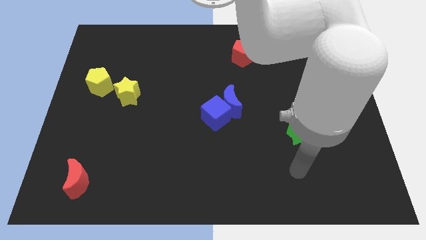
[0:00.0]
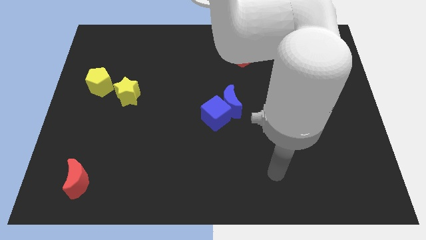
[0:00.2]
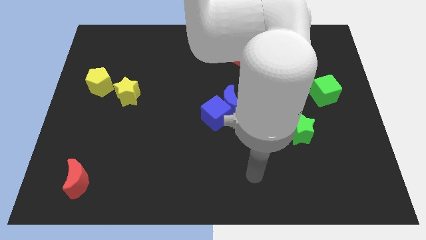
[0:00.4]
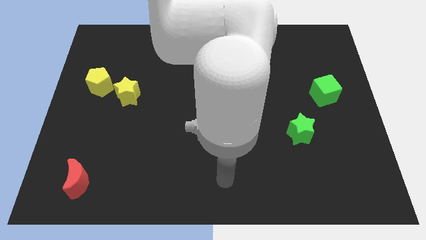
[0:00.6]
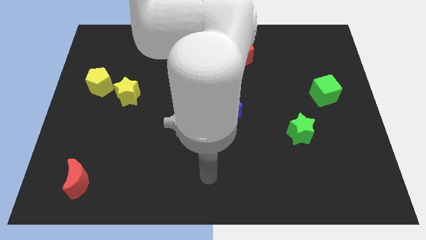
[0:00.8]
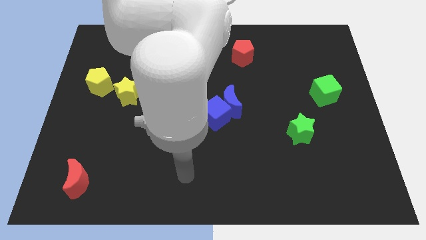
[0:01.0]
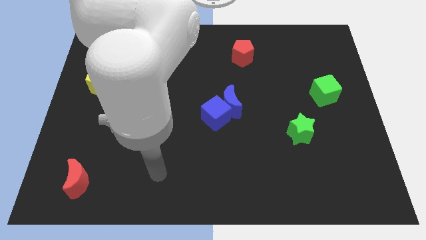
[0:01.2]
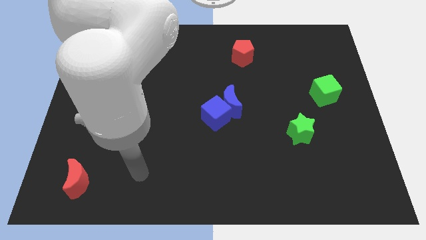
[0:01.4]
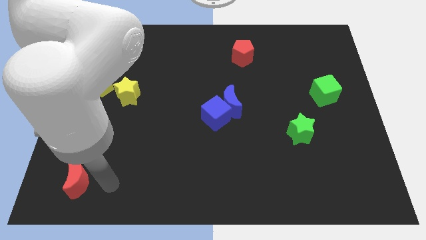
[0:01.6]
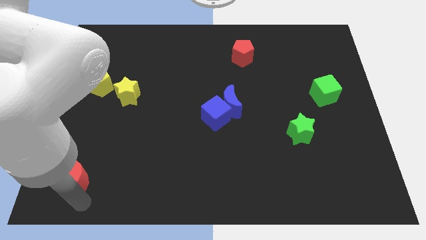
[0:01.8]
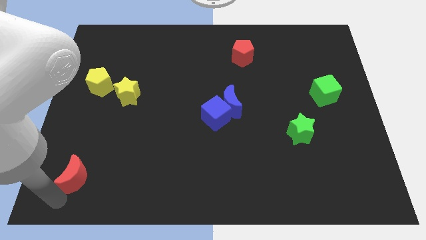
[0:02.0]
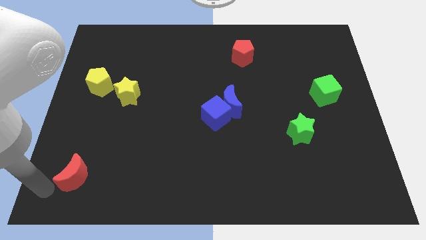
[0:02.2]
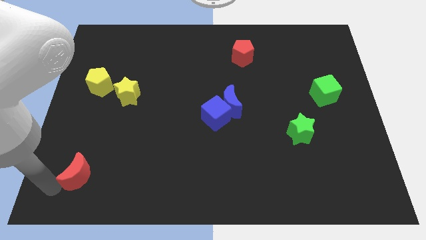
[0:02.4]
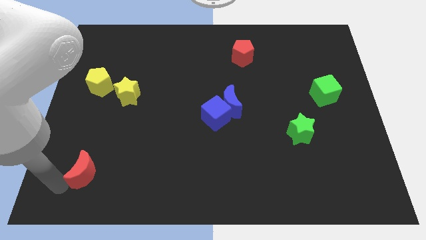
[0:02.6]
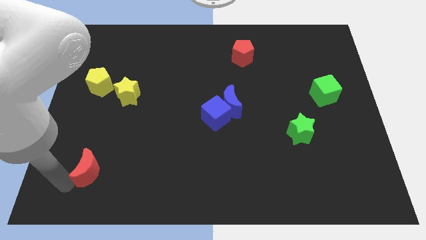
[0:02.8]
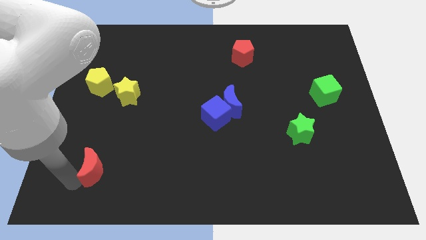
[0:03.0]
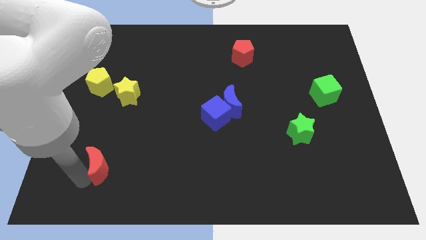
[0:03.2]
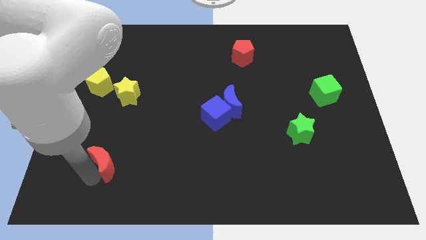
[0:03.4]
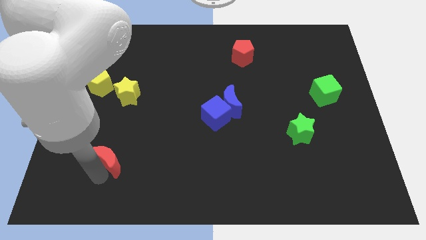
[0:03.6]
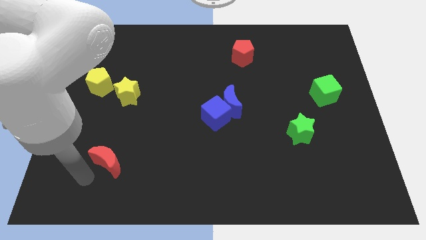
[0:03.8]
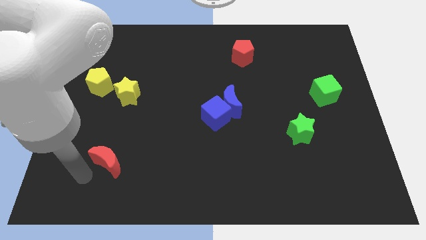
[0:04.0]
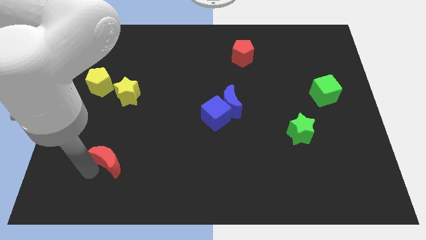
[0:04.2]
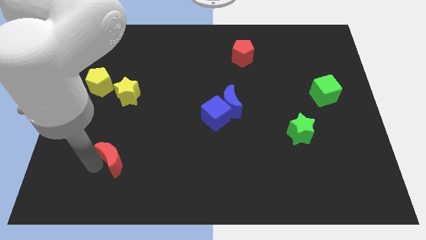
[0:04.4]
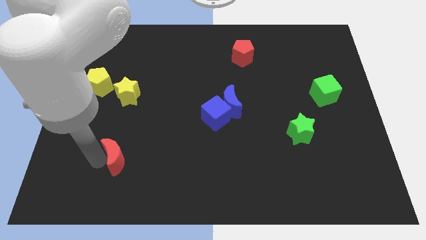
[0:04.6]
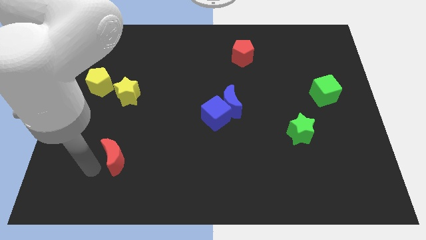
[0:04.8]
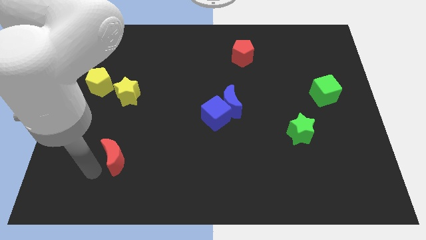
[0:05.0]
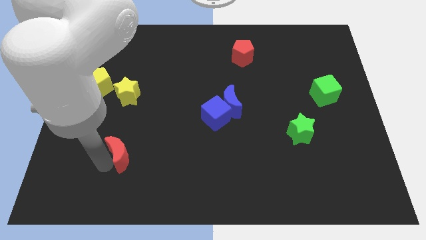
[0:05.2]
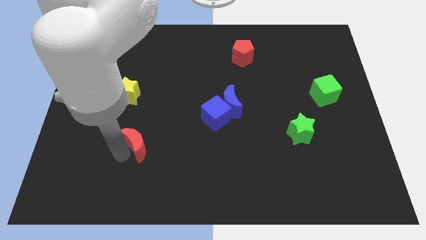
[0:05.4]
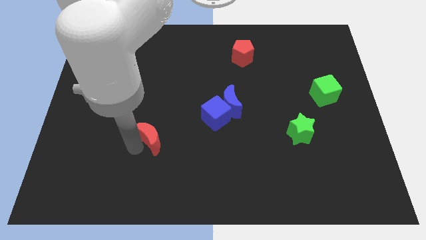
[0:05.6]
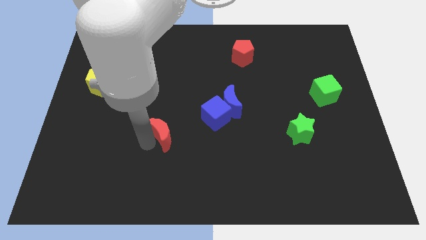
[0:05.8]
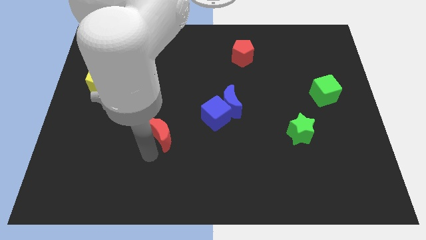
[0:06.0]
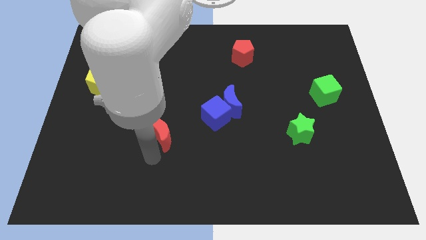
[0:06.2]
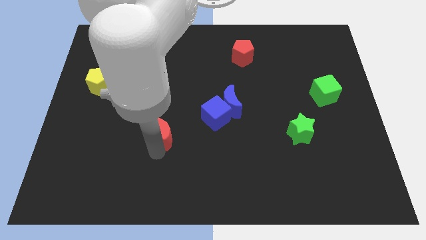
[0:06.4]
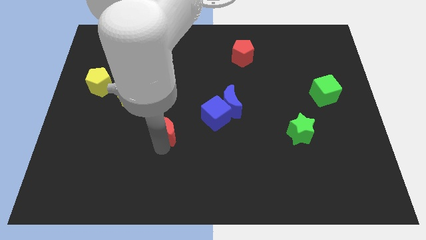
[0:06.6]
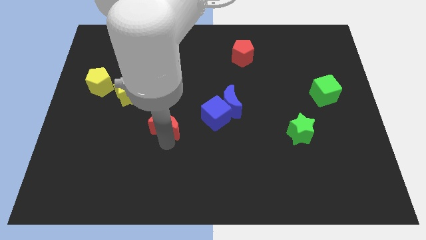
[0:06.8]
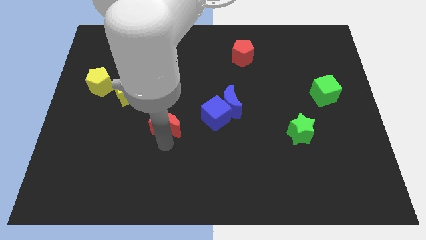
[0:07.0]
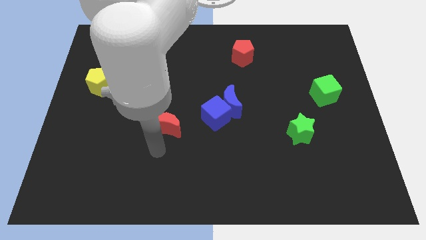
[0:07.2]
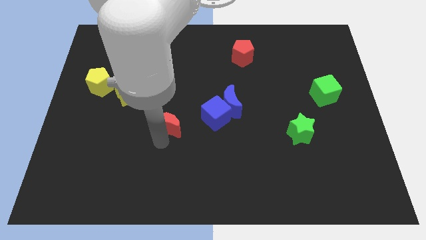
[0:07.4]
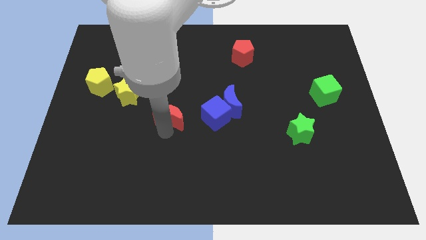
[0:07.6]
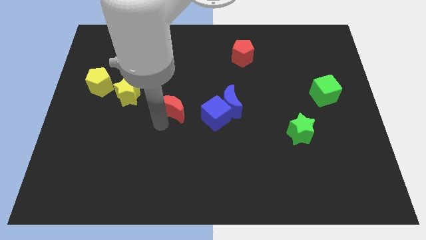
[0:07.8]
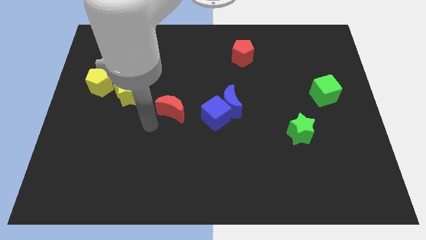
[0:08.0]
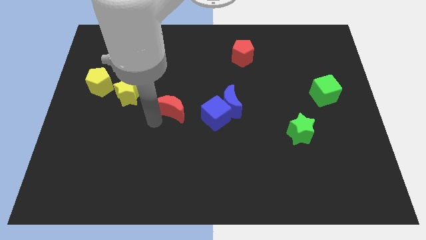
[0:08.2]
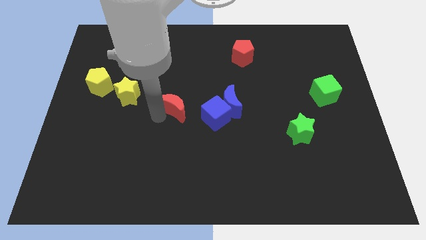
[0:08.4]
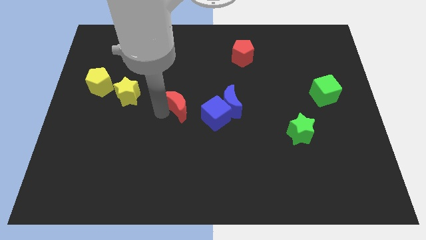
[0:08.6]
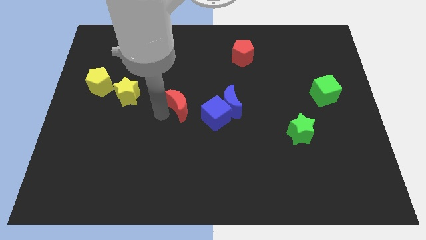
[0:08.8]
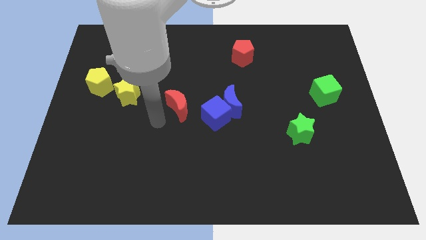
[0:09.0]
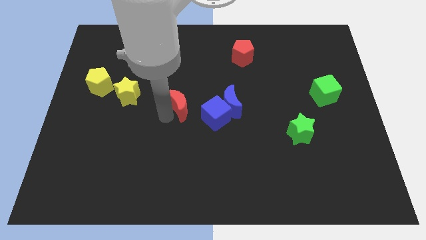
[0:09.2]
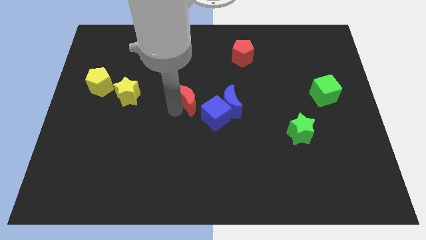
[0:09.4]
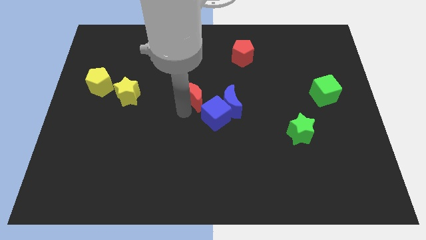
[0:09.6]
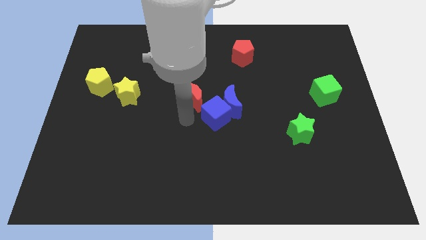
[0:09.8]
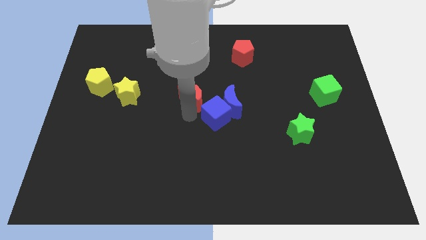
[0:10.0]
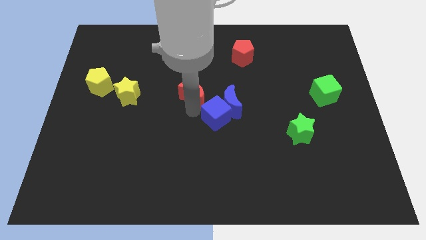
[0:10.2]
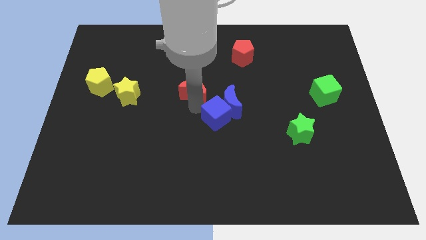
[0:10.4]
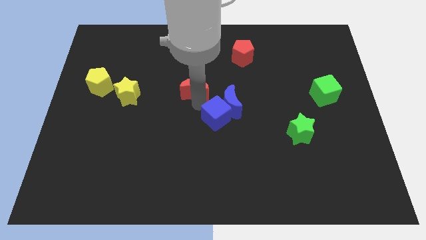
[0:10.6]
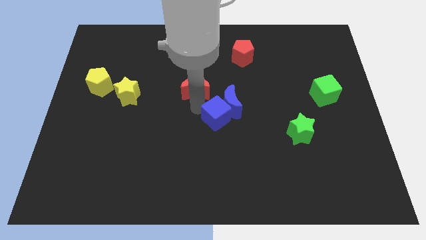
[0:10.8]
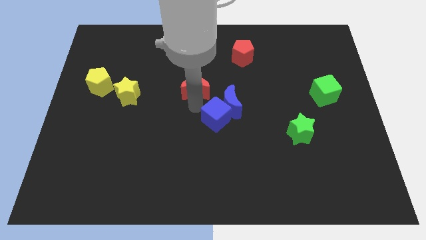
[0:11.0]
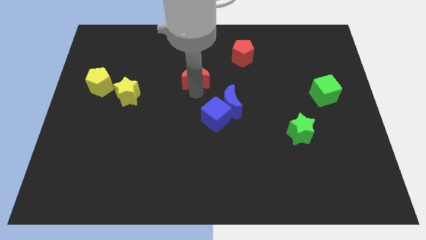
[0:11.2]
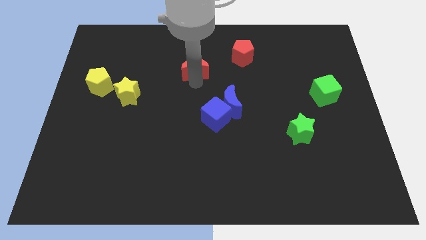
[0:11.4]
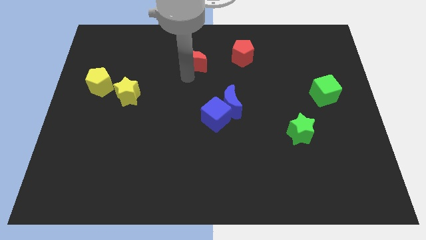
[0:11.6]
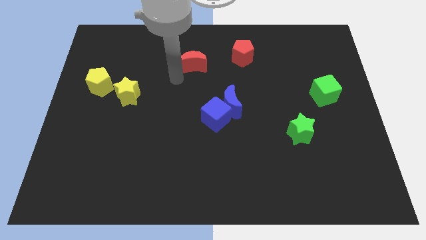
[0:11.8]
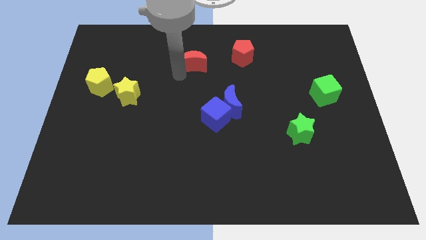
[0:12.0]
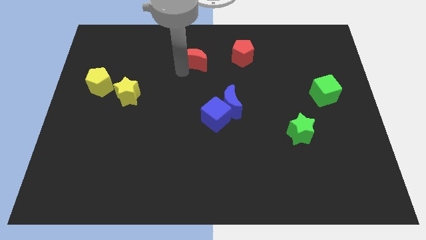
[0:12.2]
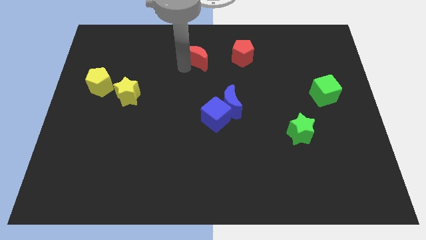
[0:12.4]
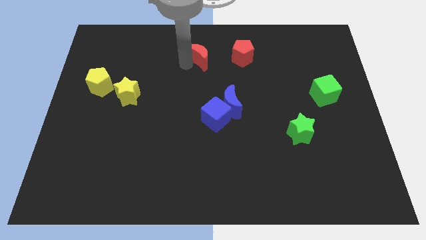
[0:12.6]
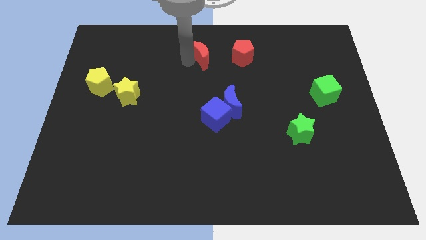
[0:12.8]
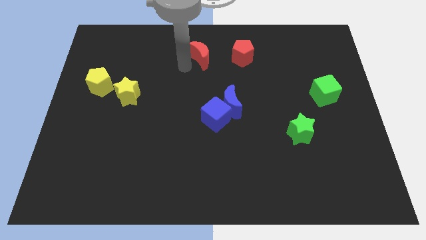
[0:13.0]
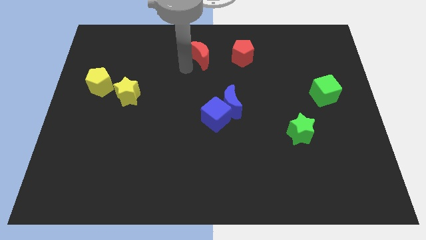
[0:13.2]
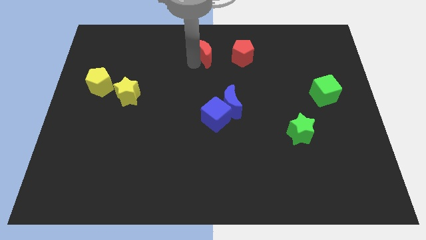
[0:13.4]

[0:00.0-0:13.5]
move the red moon to the top

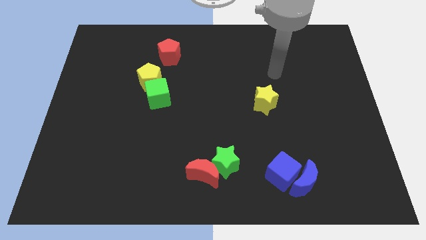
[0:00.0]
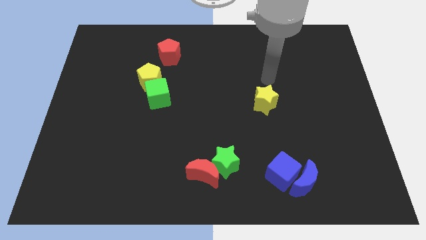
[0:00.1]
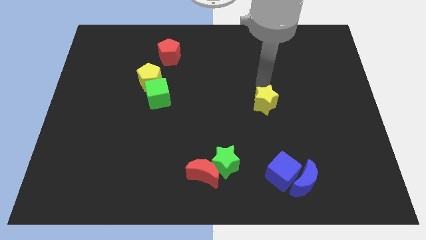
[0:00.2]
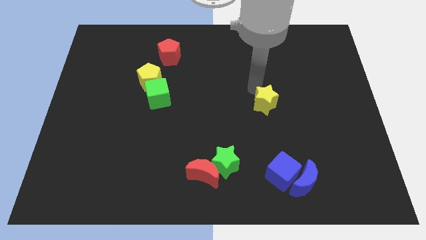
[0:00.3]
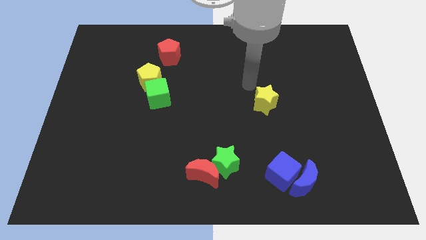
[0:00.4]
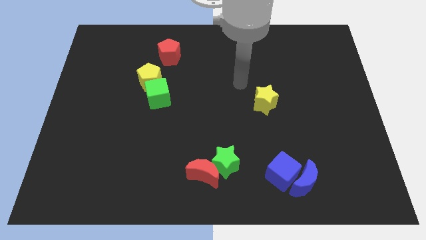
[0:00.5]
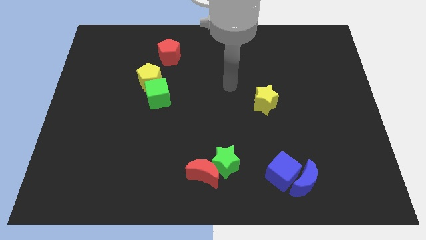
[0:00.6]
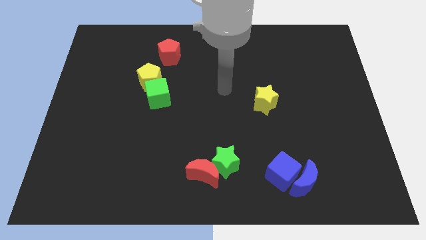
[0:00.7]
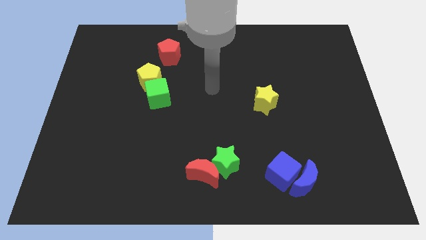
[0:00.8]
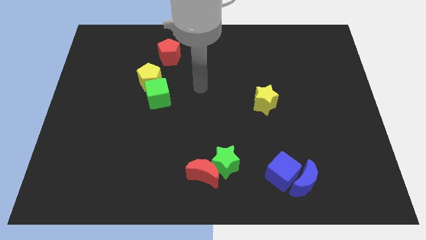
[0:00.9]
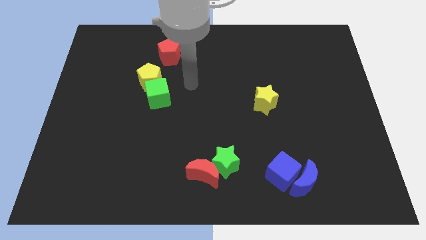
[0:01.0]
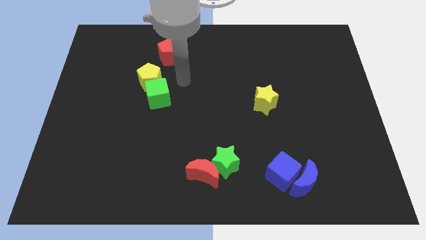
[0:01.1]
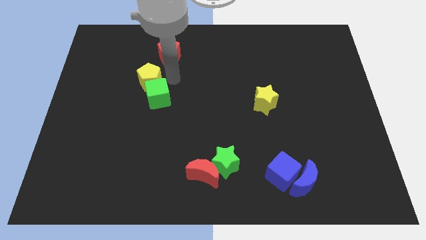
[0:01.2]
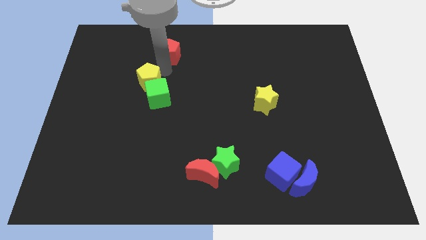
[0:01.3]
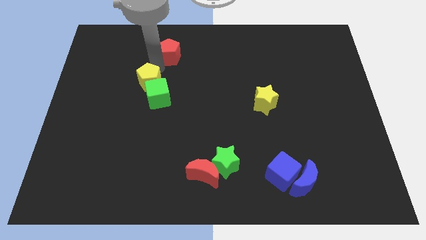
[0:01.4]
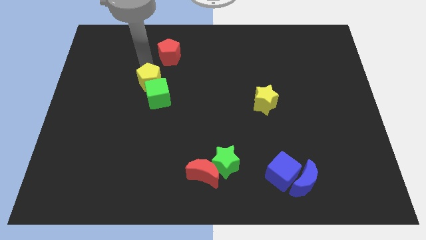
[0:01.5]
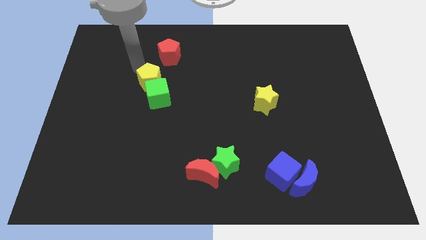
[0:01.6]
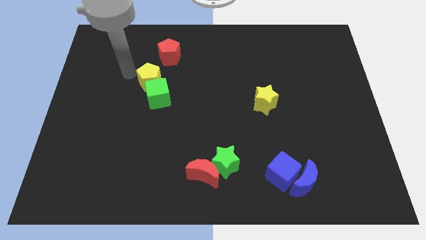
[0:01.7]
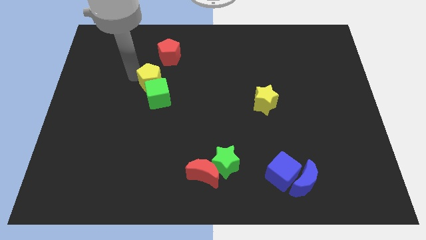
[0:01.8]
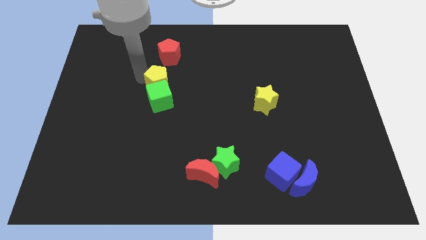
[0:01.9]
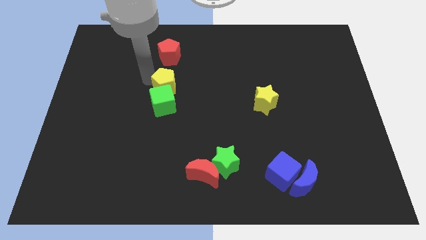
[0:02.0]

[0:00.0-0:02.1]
push the yellow pentagon to the middle
